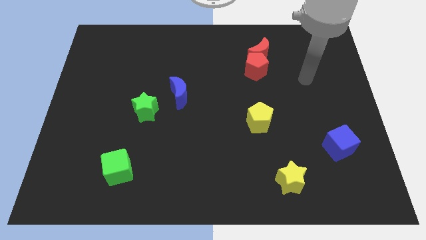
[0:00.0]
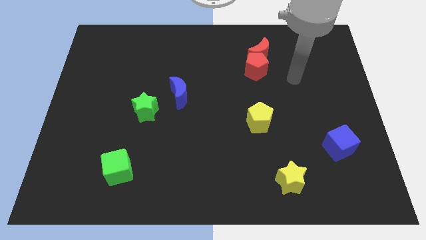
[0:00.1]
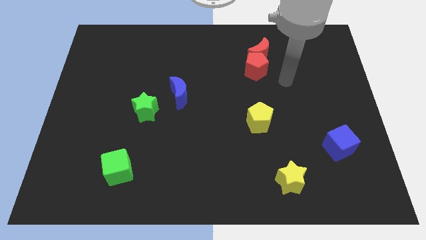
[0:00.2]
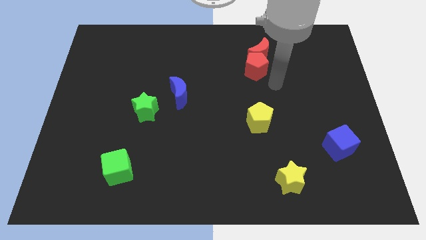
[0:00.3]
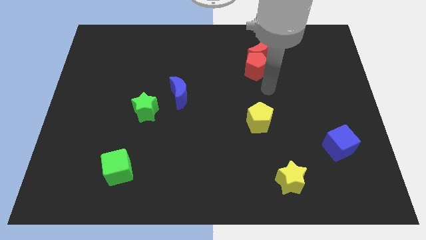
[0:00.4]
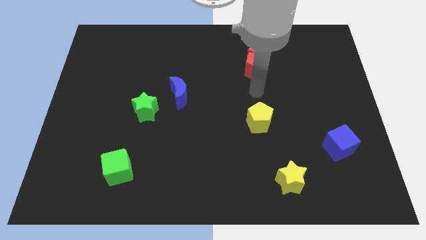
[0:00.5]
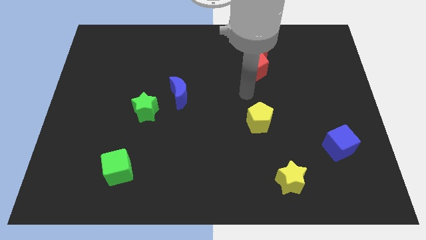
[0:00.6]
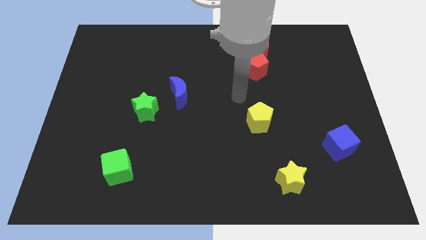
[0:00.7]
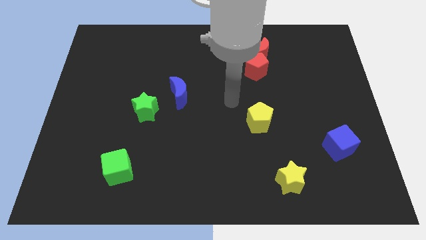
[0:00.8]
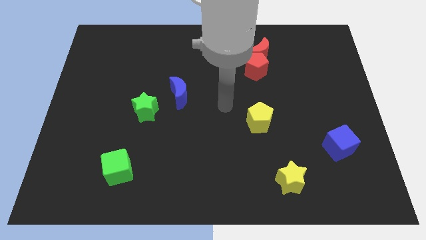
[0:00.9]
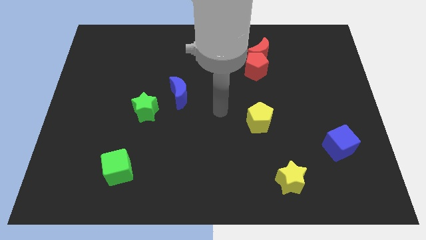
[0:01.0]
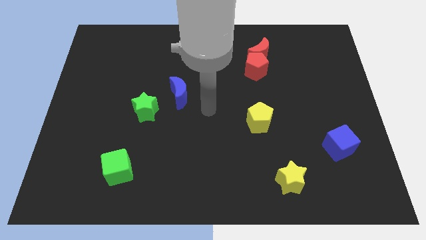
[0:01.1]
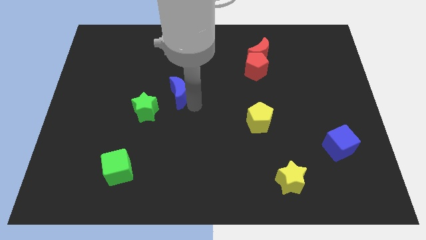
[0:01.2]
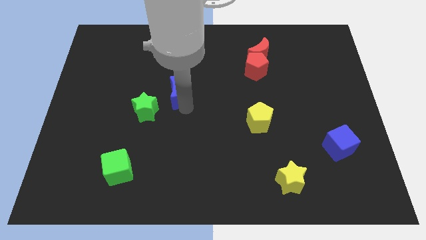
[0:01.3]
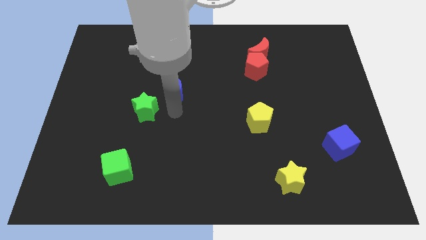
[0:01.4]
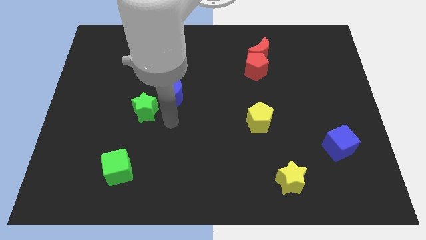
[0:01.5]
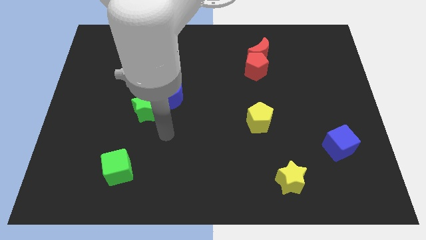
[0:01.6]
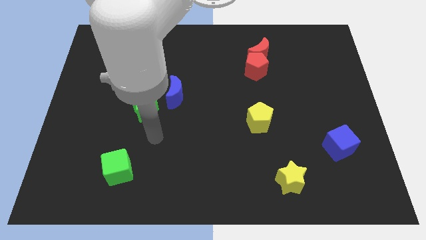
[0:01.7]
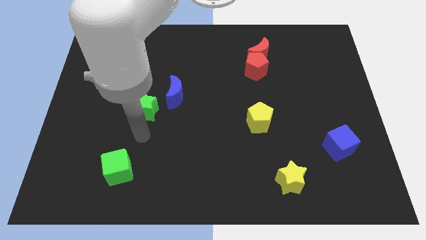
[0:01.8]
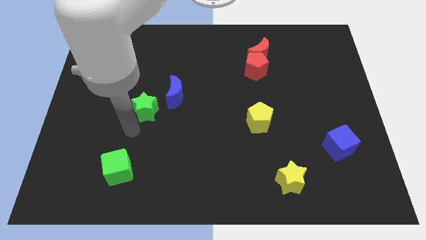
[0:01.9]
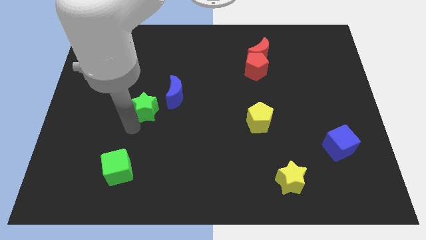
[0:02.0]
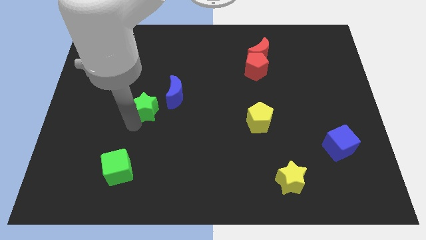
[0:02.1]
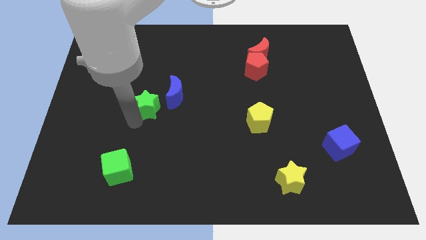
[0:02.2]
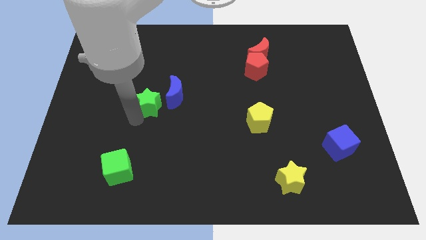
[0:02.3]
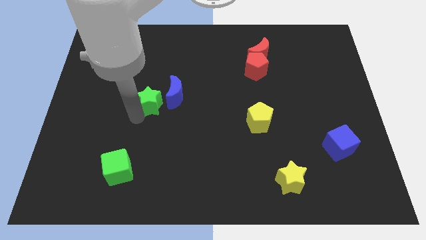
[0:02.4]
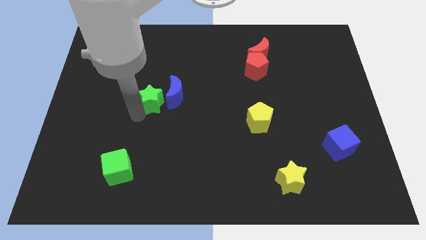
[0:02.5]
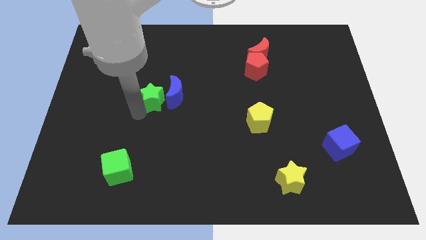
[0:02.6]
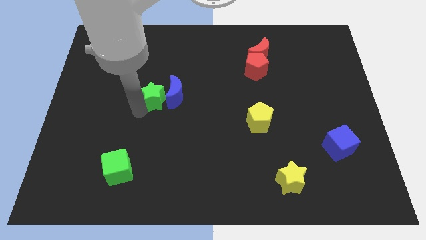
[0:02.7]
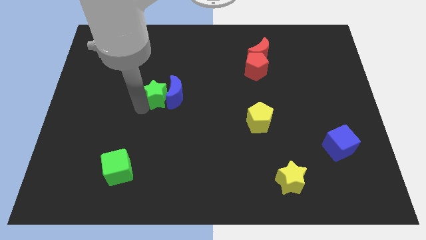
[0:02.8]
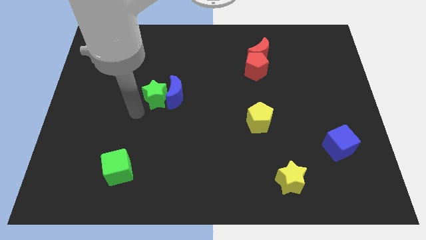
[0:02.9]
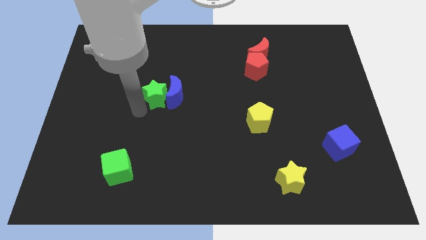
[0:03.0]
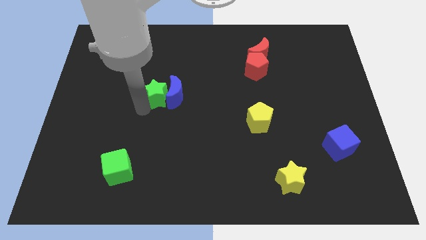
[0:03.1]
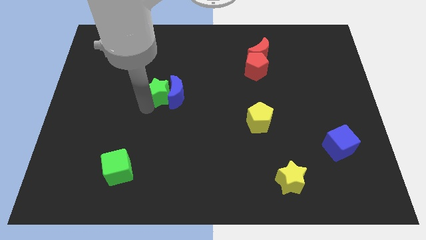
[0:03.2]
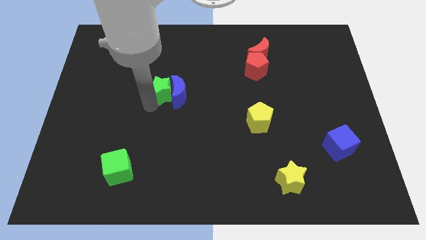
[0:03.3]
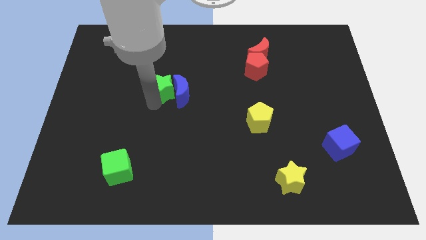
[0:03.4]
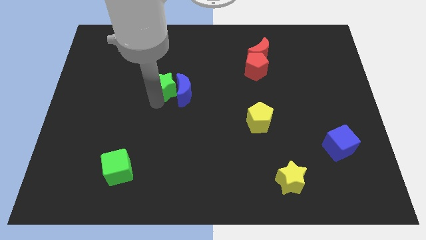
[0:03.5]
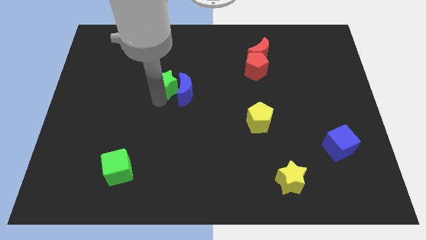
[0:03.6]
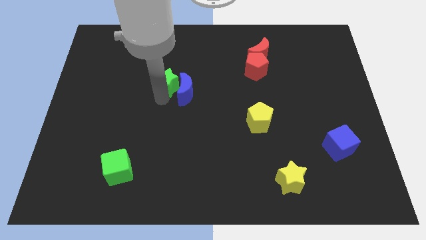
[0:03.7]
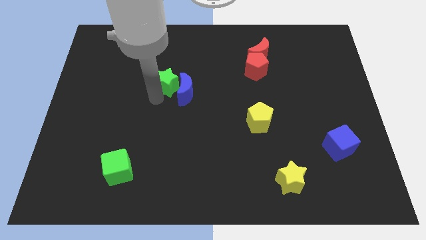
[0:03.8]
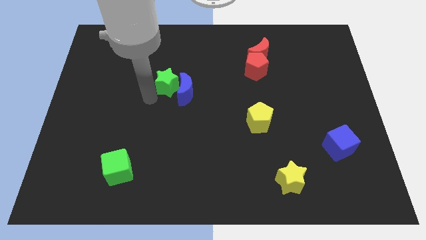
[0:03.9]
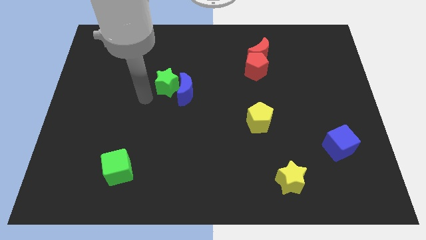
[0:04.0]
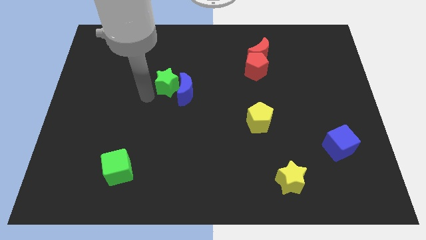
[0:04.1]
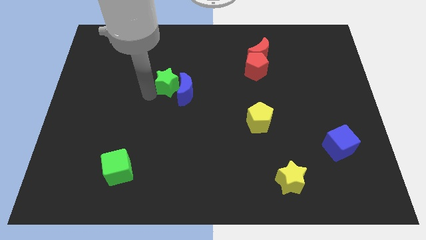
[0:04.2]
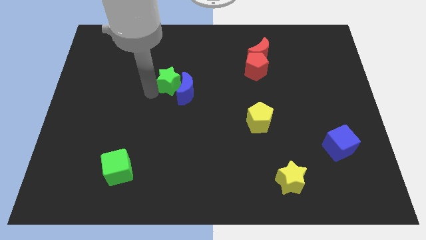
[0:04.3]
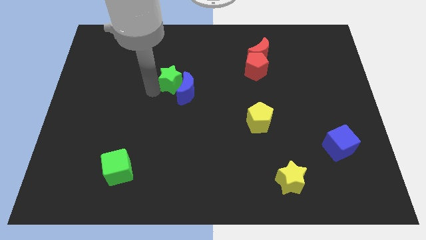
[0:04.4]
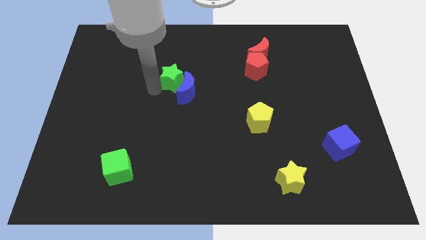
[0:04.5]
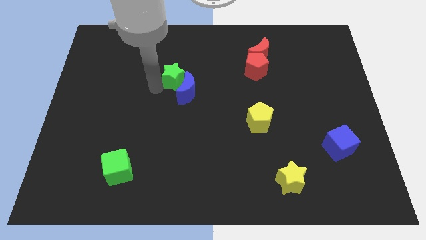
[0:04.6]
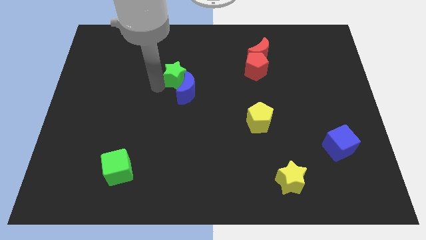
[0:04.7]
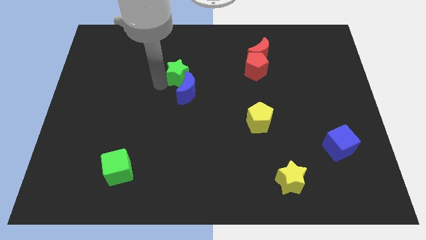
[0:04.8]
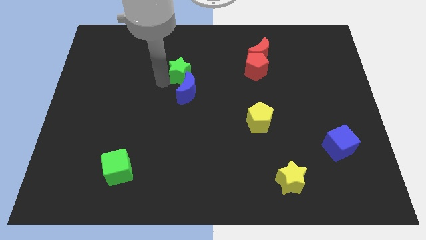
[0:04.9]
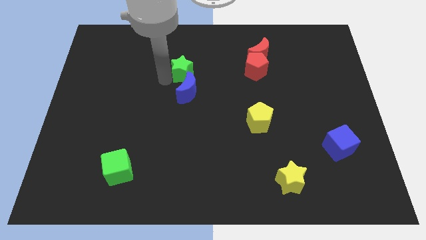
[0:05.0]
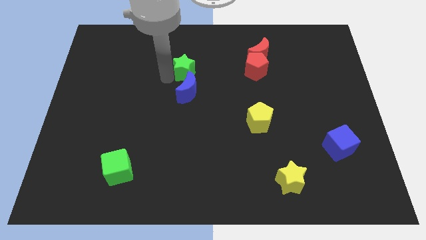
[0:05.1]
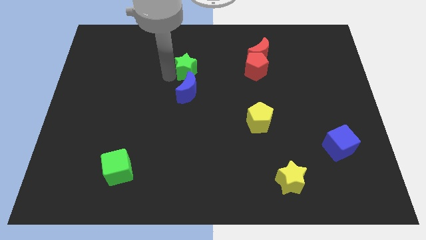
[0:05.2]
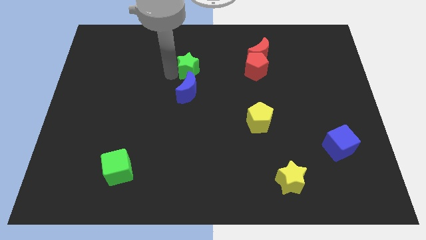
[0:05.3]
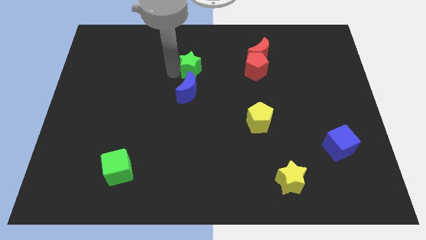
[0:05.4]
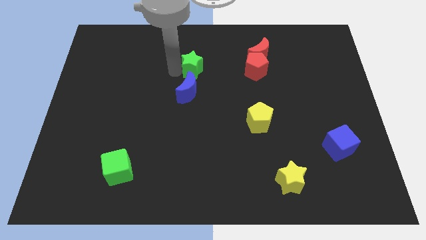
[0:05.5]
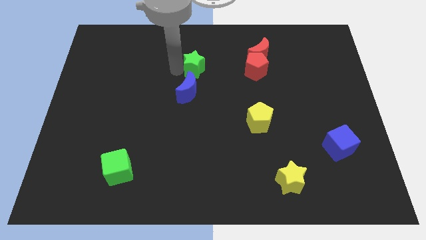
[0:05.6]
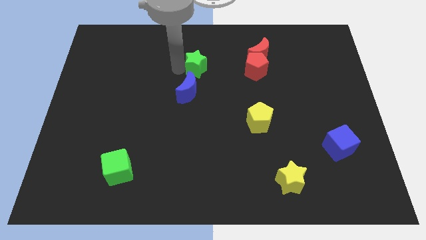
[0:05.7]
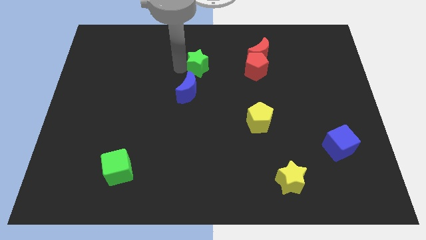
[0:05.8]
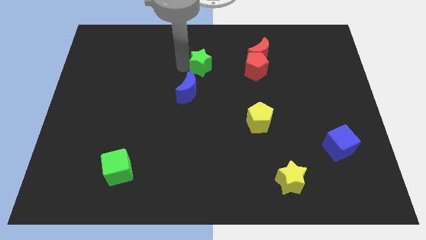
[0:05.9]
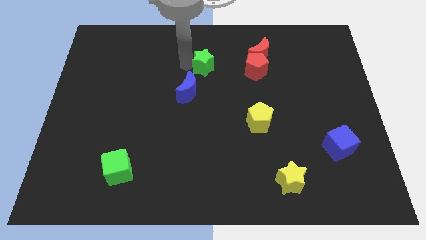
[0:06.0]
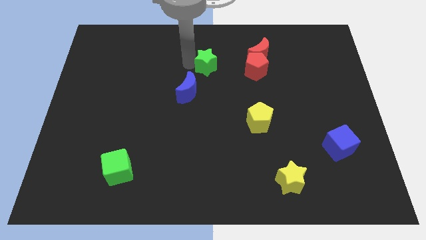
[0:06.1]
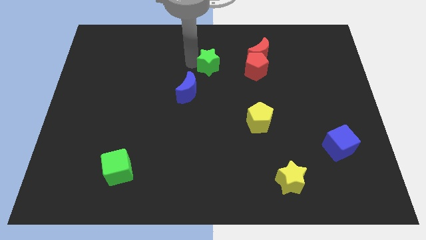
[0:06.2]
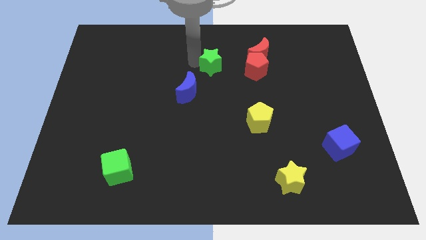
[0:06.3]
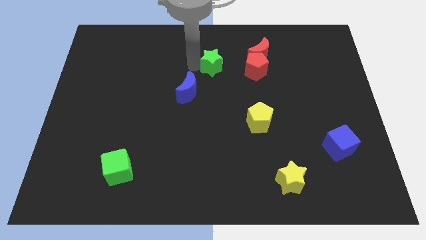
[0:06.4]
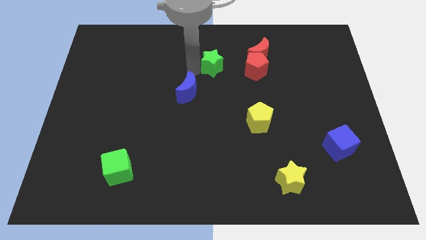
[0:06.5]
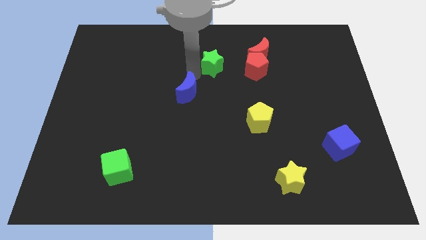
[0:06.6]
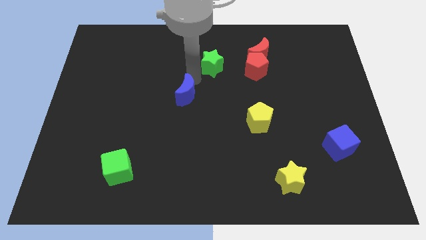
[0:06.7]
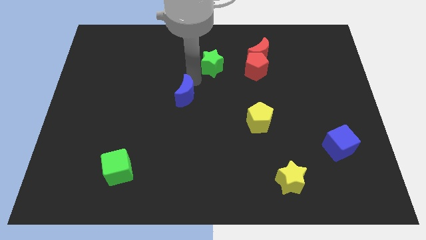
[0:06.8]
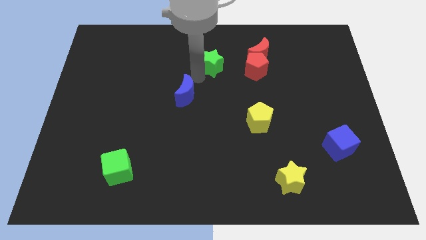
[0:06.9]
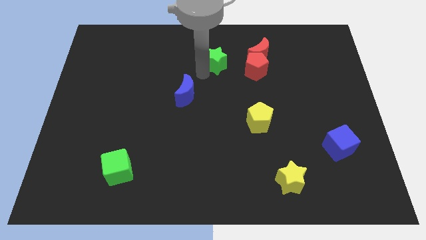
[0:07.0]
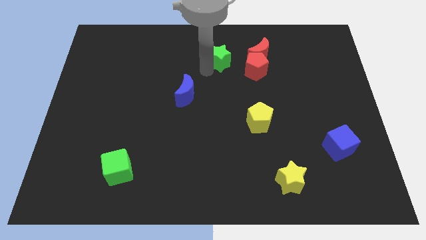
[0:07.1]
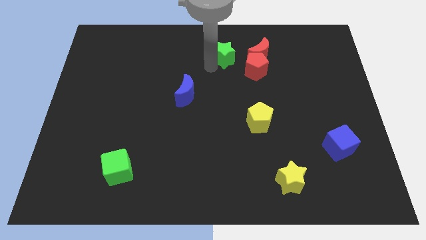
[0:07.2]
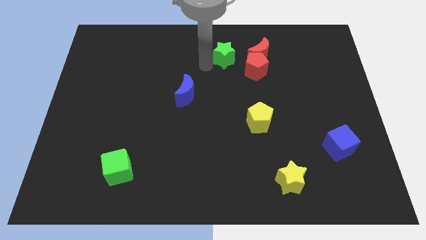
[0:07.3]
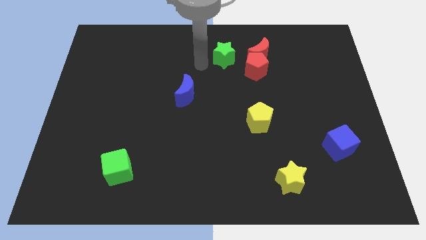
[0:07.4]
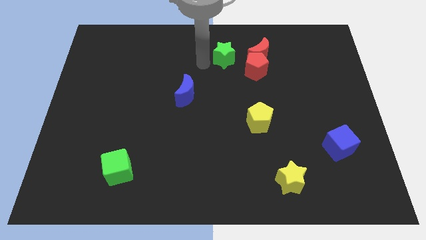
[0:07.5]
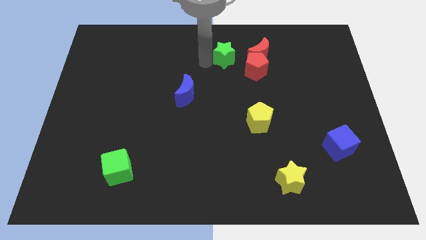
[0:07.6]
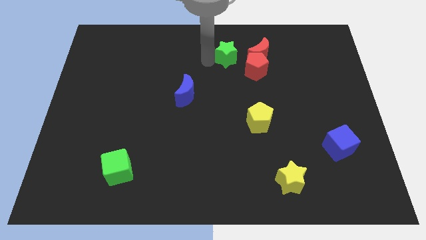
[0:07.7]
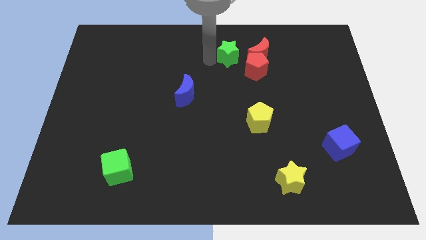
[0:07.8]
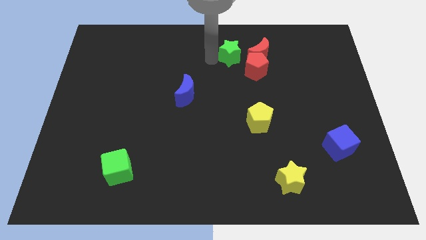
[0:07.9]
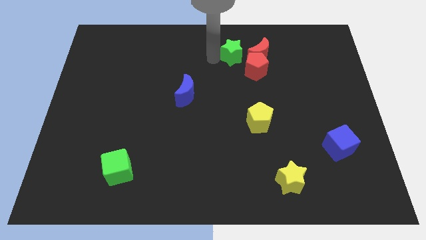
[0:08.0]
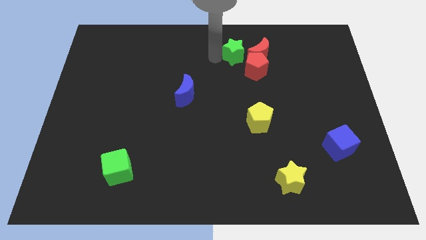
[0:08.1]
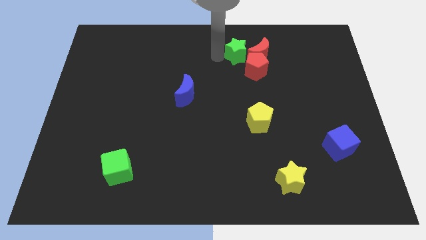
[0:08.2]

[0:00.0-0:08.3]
move the green star next to the red moon

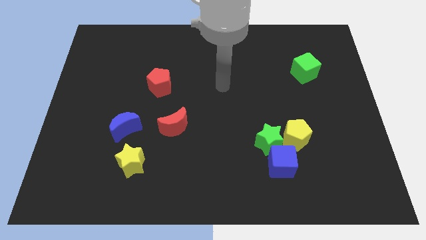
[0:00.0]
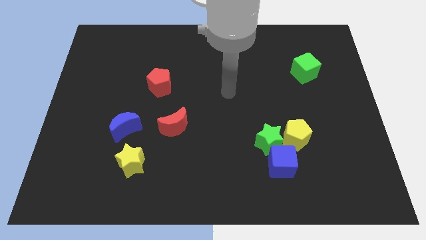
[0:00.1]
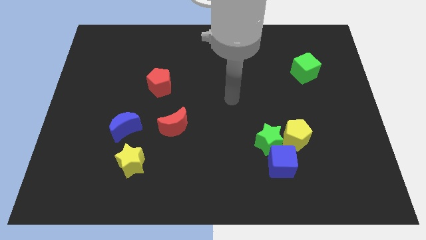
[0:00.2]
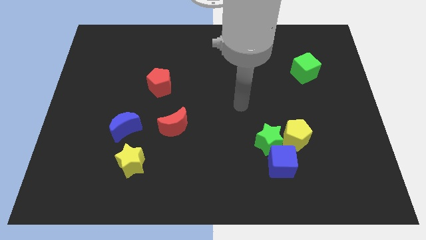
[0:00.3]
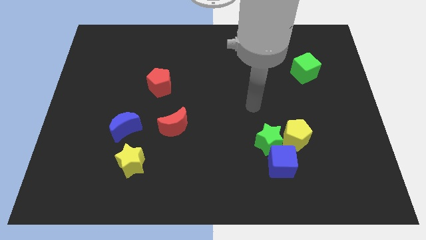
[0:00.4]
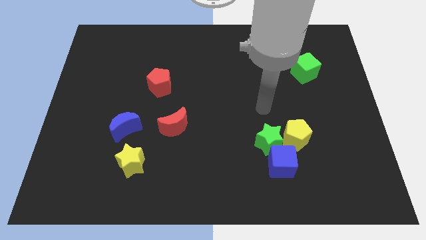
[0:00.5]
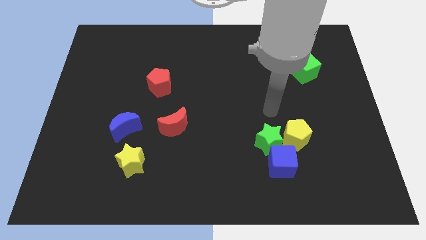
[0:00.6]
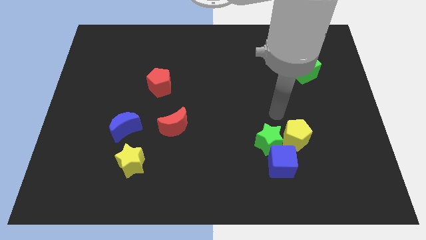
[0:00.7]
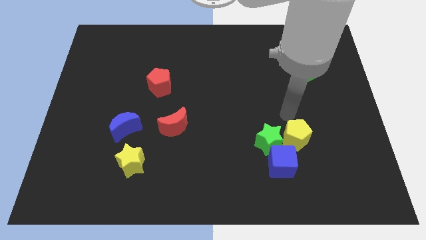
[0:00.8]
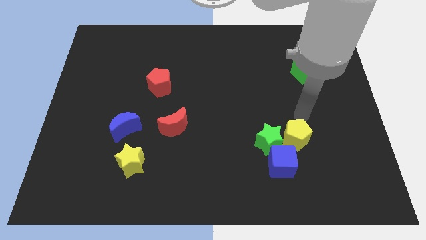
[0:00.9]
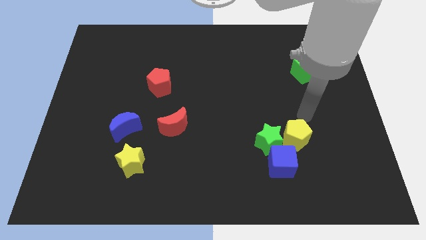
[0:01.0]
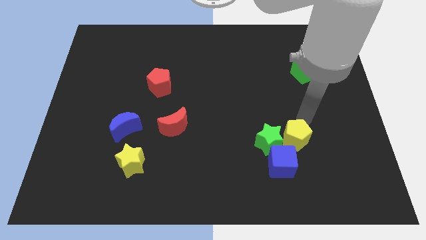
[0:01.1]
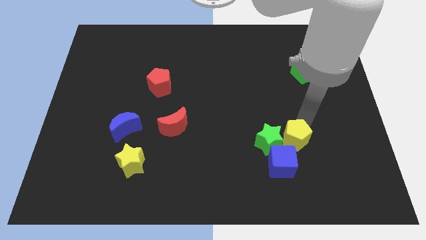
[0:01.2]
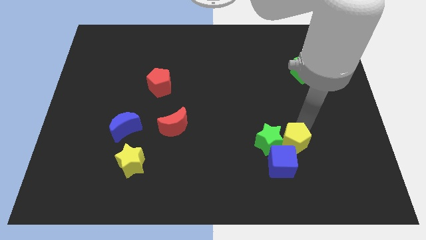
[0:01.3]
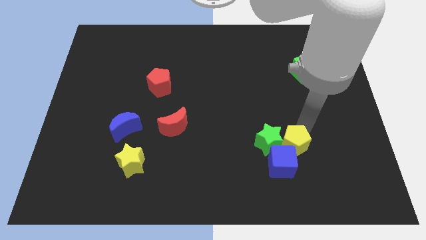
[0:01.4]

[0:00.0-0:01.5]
slide the yellow pentagon towards the blue cube
